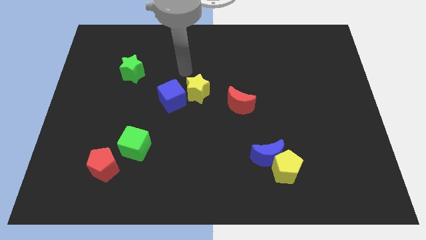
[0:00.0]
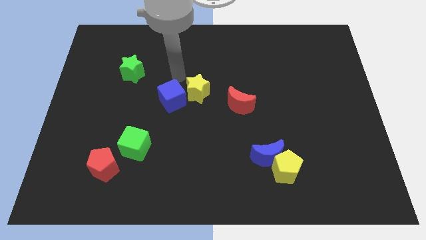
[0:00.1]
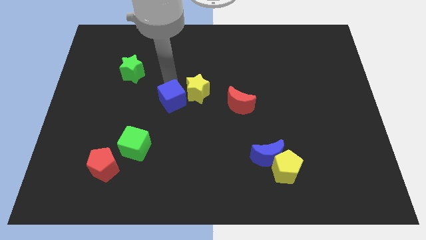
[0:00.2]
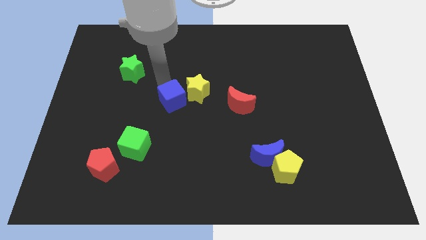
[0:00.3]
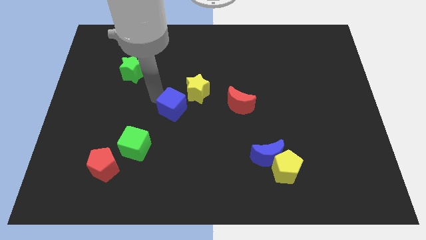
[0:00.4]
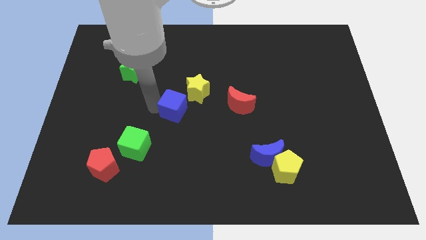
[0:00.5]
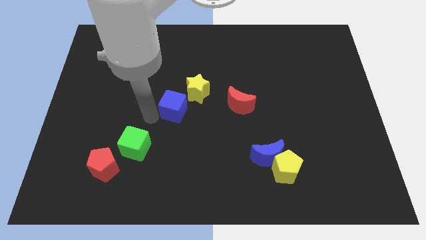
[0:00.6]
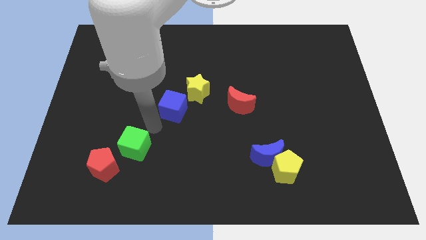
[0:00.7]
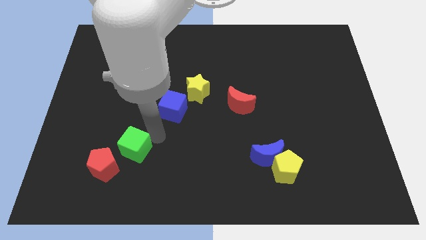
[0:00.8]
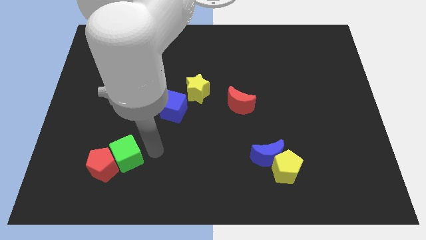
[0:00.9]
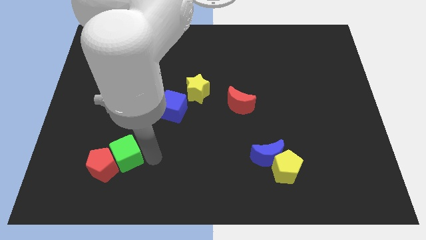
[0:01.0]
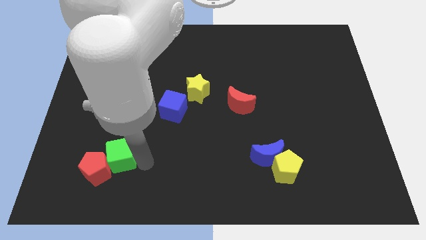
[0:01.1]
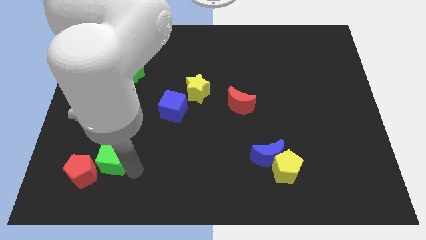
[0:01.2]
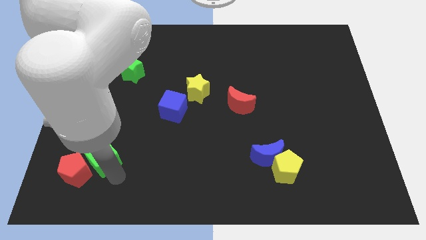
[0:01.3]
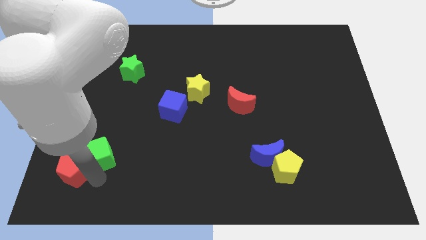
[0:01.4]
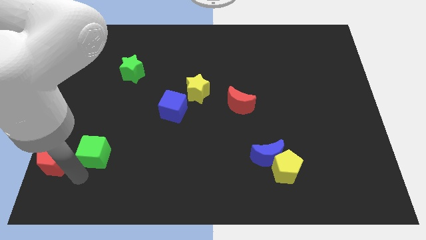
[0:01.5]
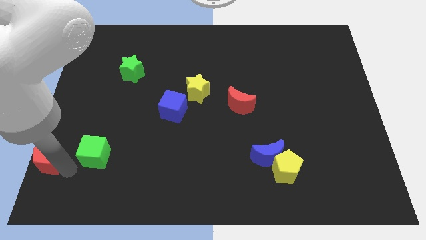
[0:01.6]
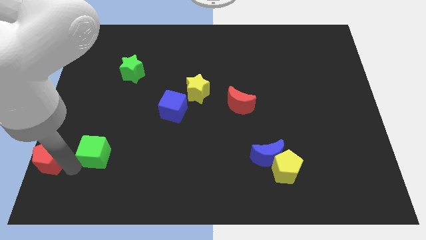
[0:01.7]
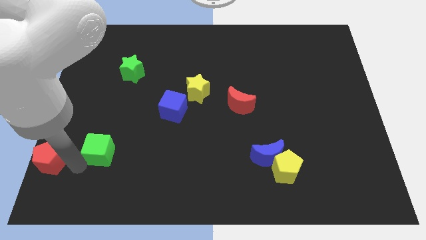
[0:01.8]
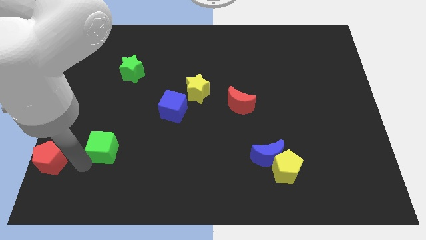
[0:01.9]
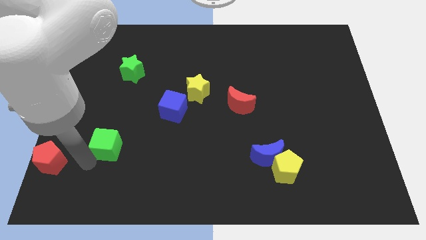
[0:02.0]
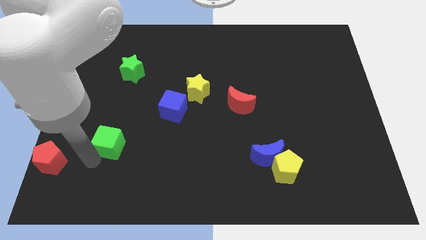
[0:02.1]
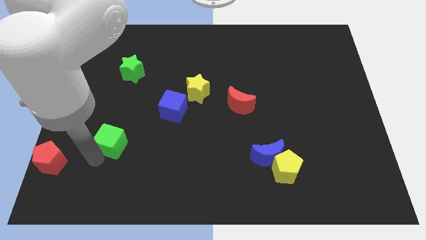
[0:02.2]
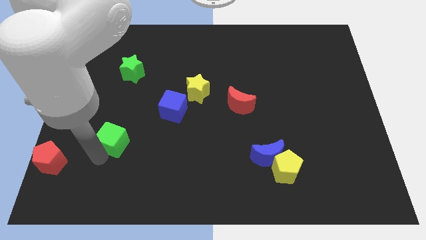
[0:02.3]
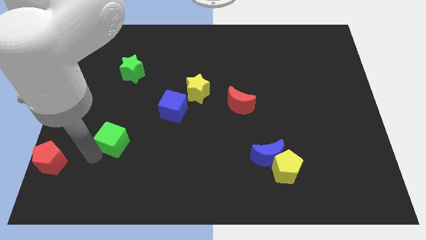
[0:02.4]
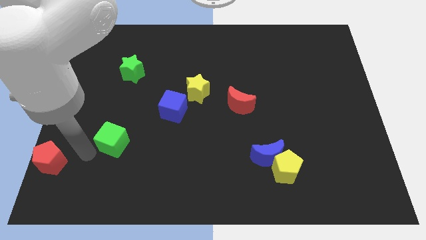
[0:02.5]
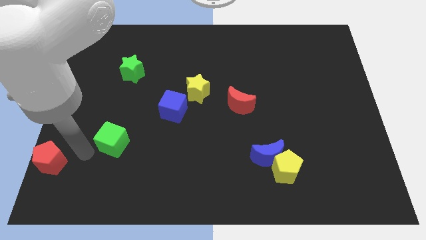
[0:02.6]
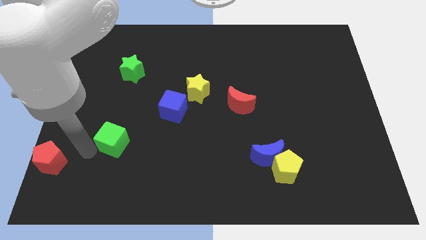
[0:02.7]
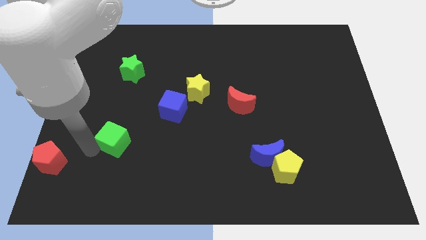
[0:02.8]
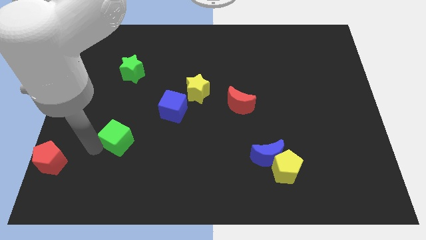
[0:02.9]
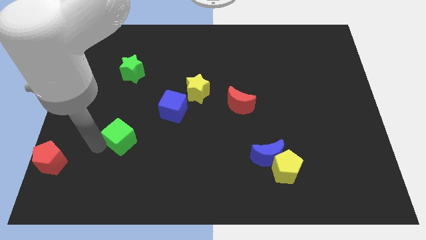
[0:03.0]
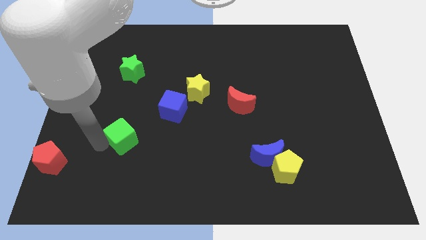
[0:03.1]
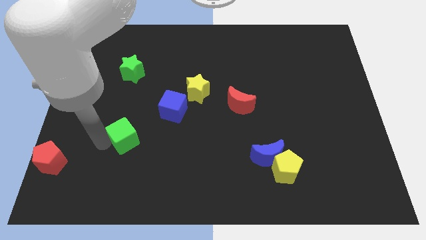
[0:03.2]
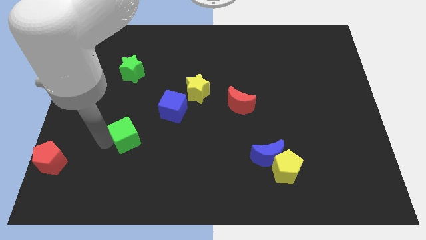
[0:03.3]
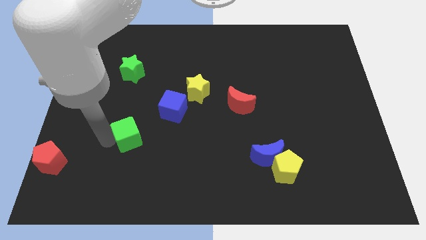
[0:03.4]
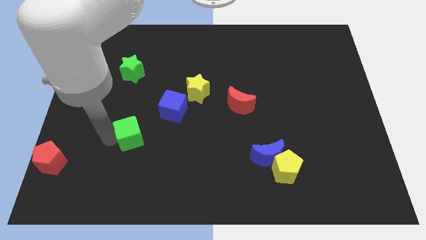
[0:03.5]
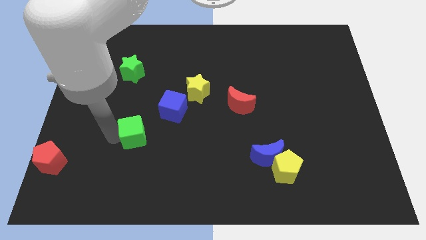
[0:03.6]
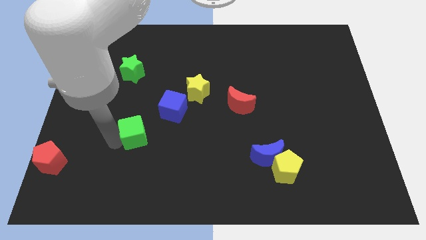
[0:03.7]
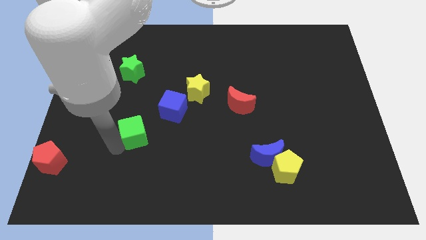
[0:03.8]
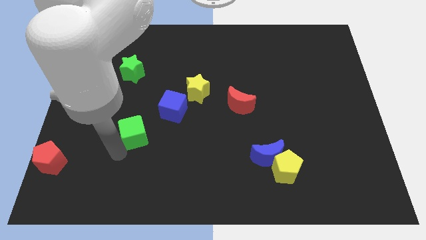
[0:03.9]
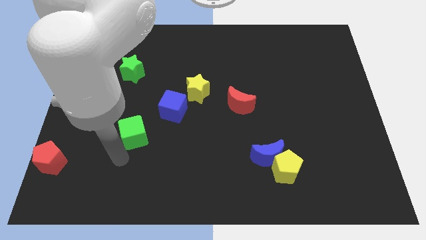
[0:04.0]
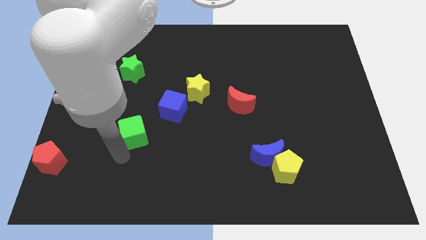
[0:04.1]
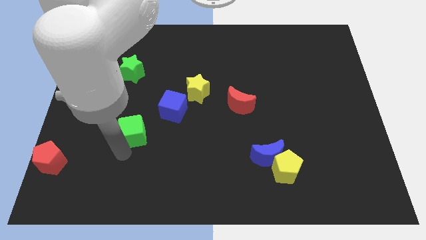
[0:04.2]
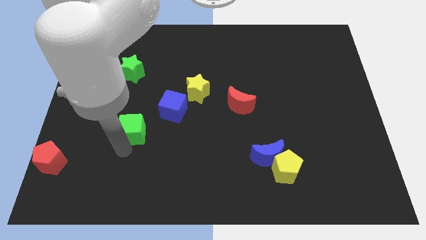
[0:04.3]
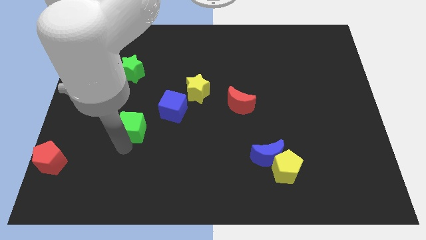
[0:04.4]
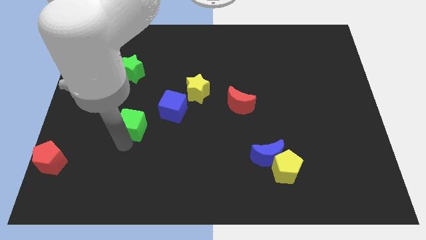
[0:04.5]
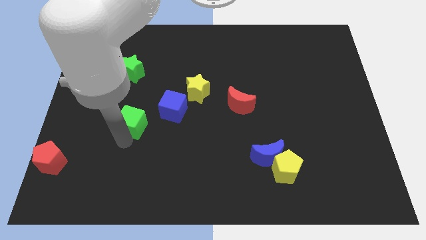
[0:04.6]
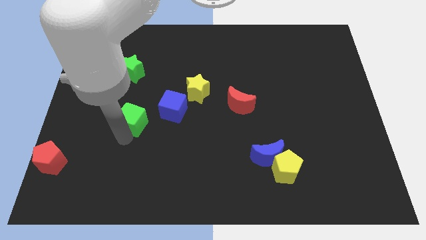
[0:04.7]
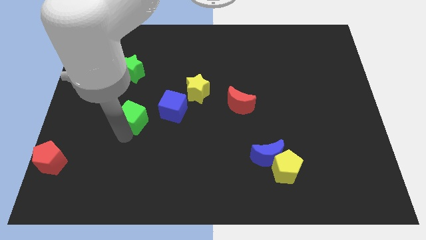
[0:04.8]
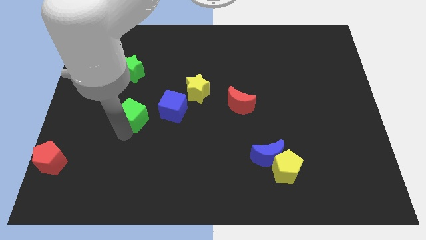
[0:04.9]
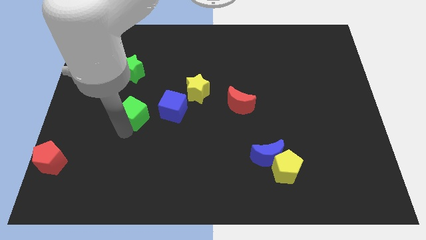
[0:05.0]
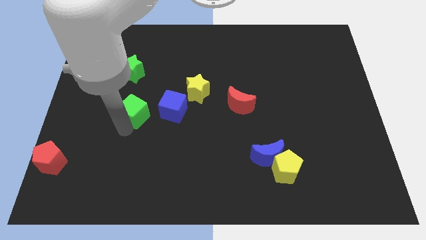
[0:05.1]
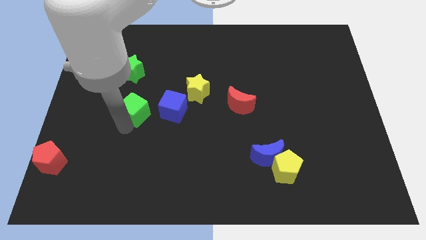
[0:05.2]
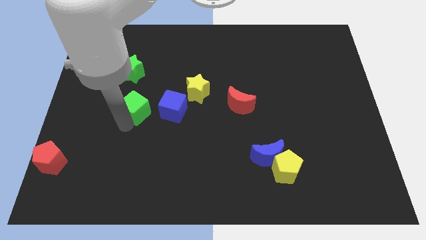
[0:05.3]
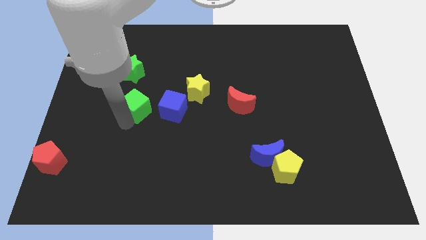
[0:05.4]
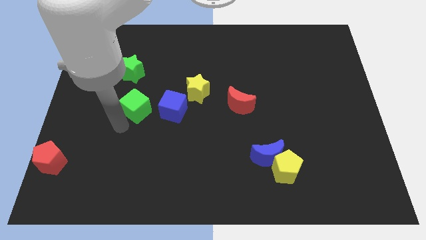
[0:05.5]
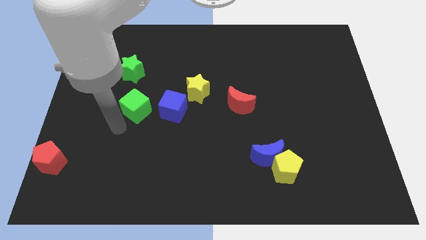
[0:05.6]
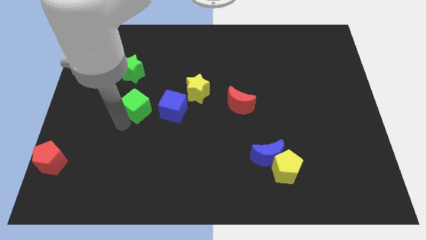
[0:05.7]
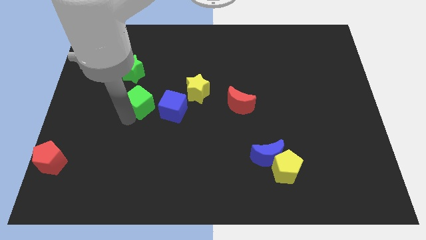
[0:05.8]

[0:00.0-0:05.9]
slide the green cube just left of the yellow star

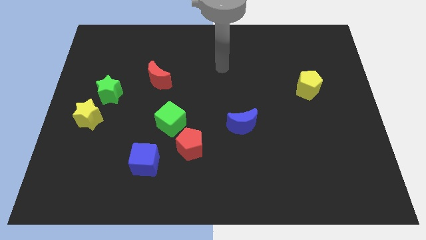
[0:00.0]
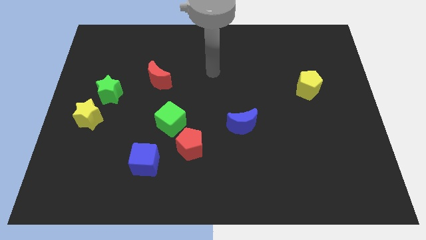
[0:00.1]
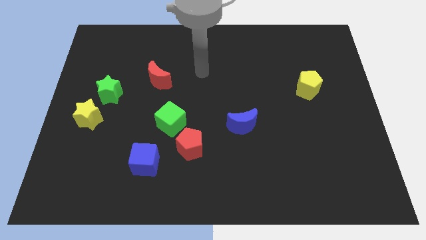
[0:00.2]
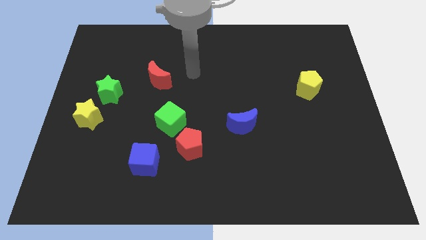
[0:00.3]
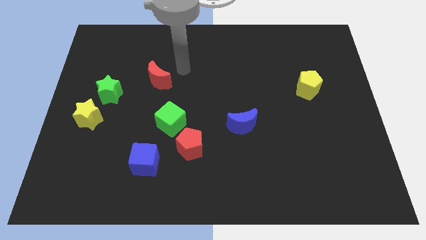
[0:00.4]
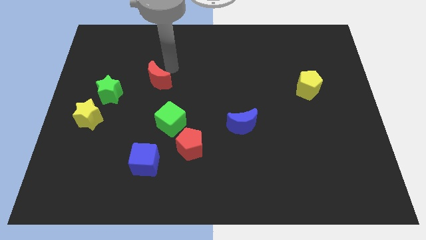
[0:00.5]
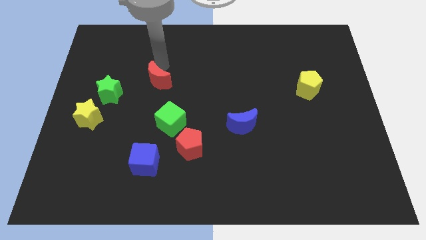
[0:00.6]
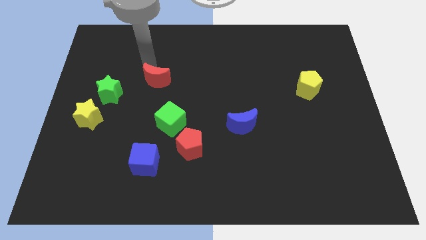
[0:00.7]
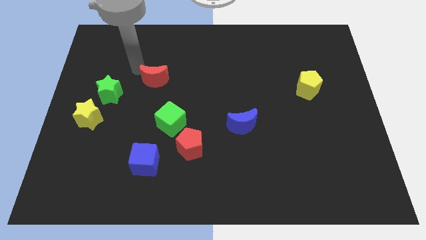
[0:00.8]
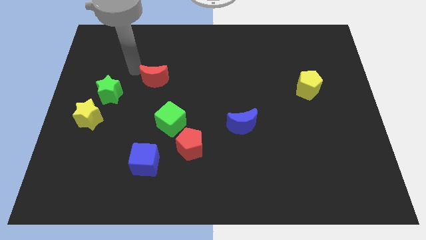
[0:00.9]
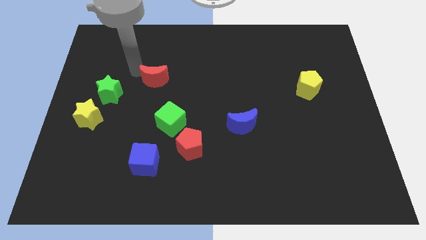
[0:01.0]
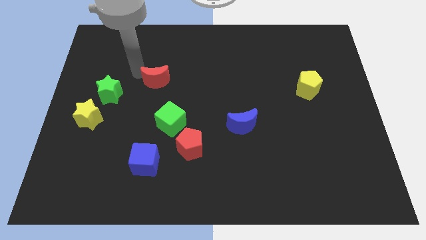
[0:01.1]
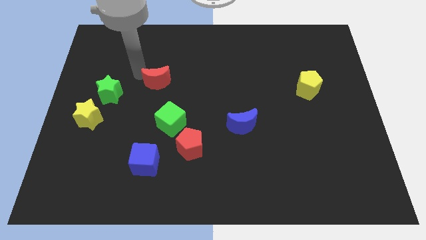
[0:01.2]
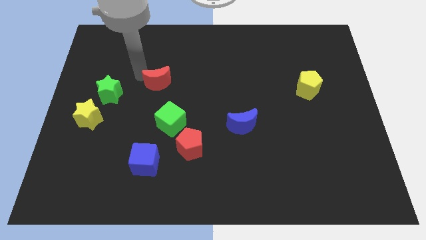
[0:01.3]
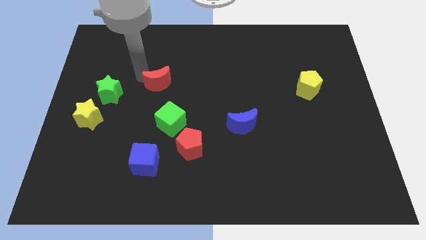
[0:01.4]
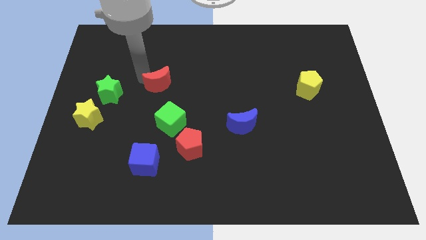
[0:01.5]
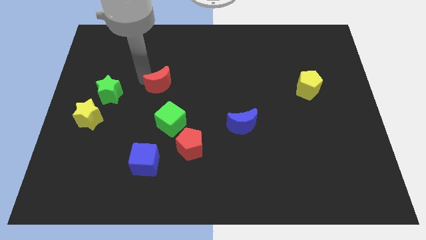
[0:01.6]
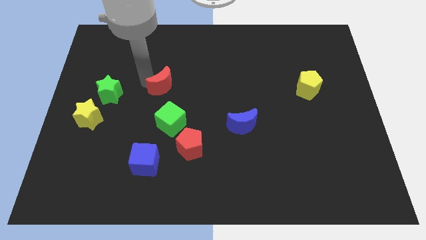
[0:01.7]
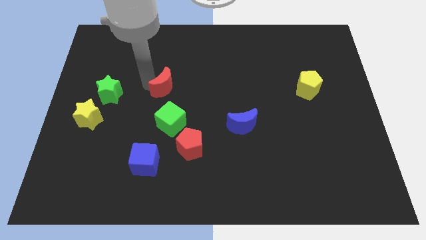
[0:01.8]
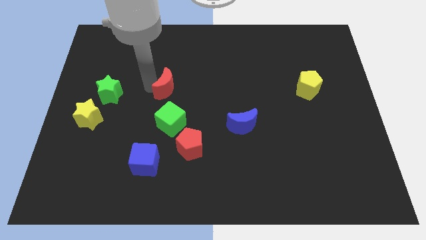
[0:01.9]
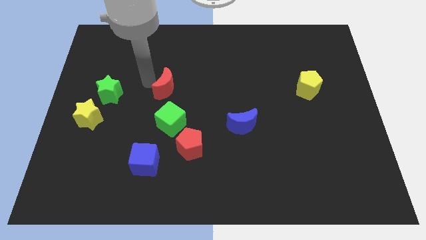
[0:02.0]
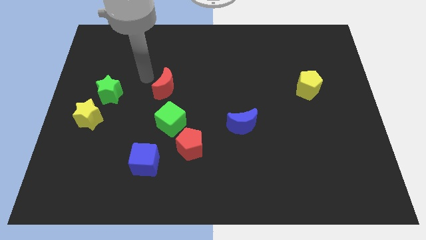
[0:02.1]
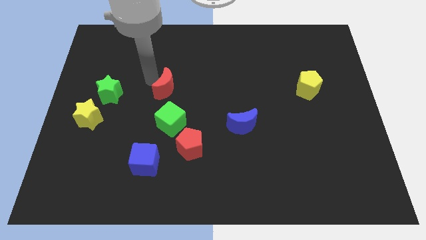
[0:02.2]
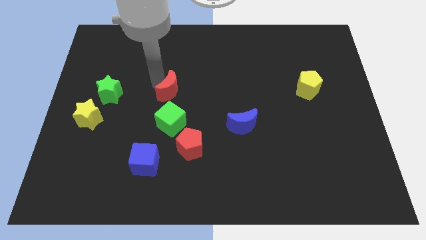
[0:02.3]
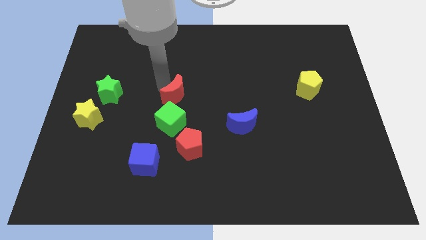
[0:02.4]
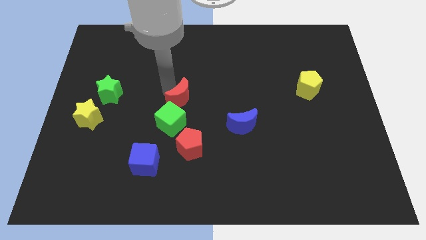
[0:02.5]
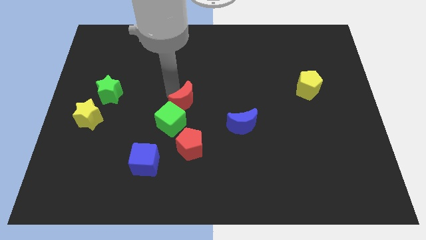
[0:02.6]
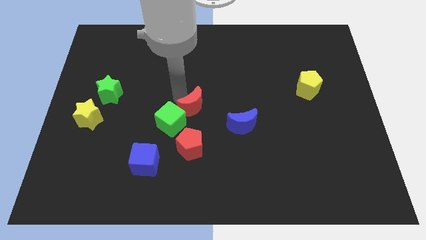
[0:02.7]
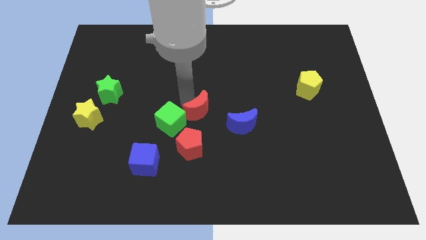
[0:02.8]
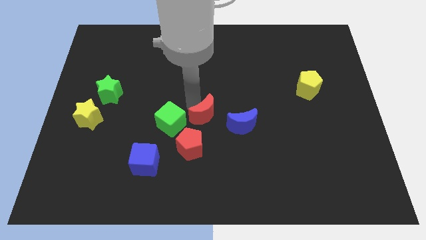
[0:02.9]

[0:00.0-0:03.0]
put the red moon diagonally up and to the right of the red pentagon
